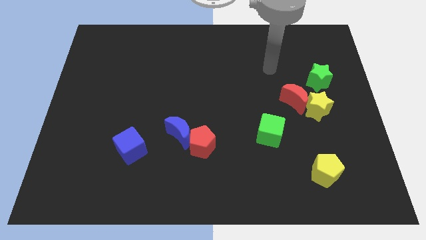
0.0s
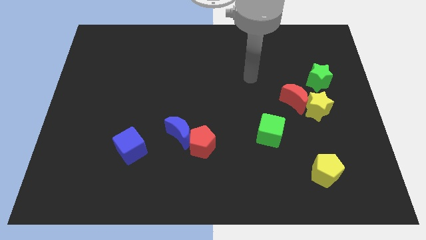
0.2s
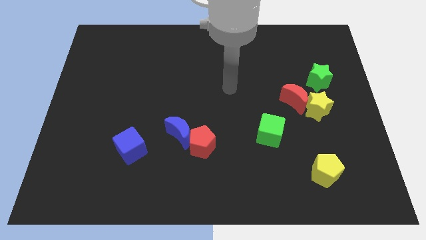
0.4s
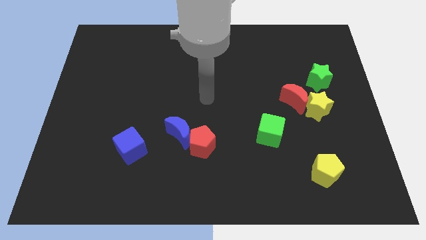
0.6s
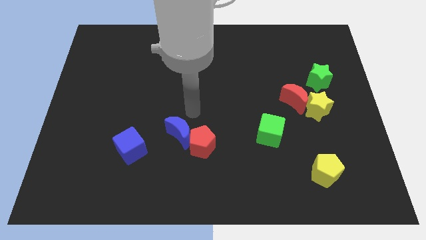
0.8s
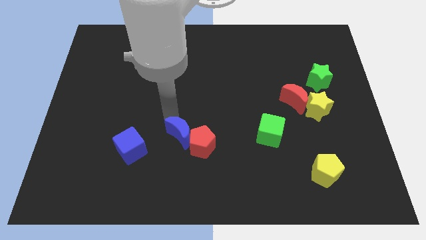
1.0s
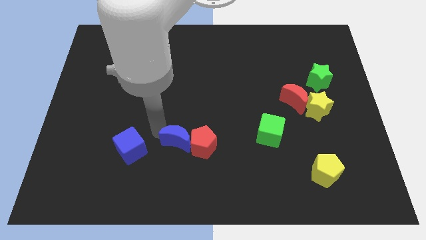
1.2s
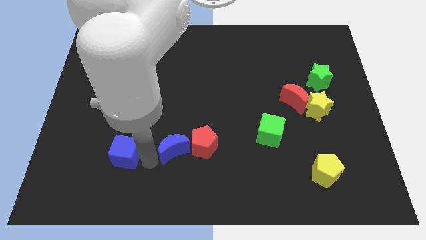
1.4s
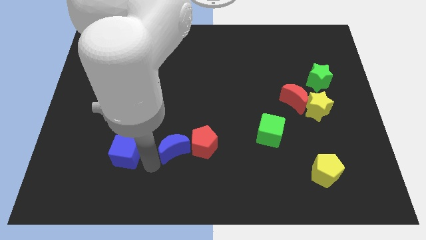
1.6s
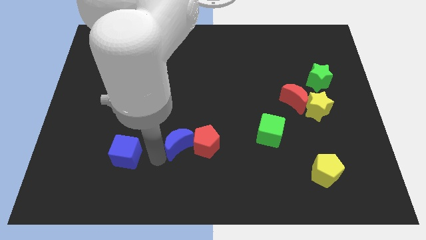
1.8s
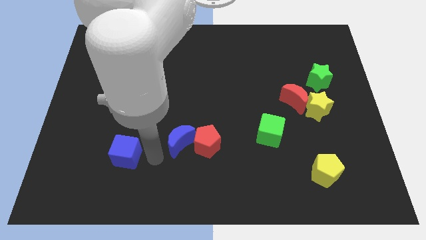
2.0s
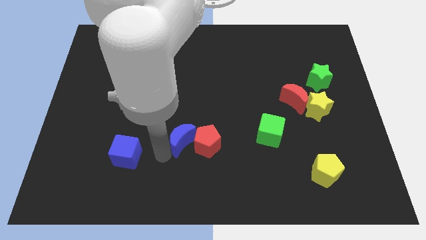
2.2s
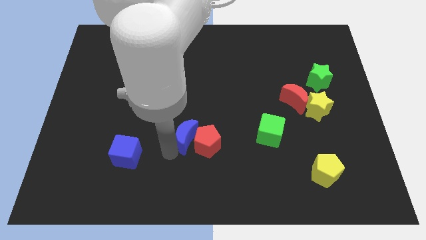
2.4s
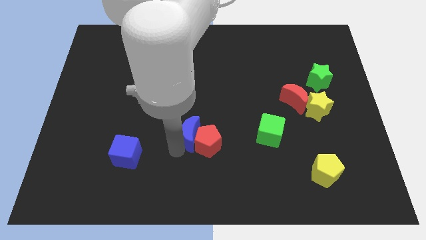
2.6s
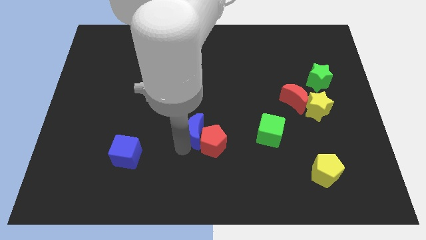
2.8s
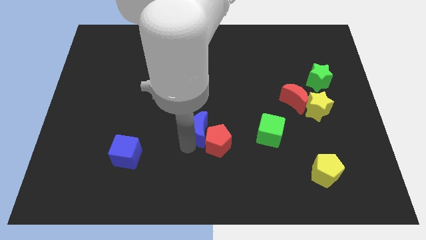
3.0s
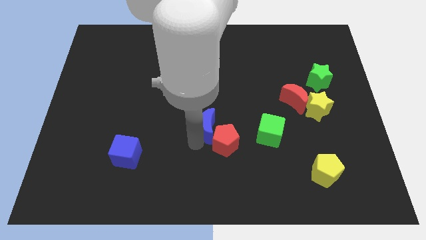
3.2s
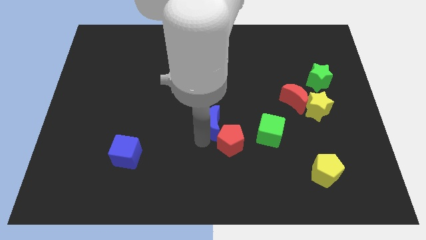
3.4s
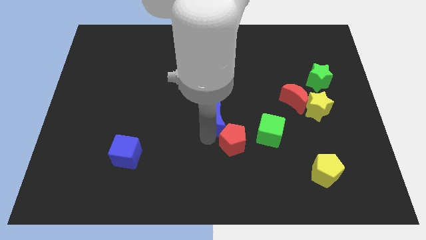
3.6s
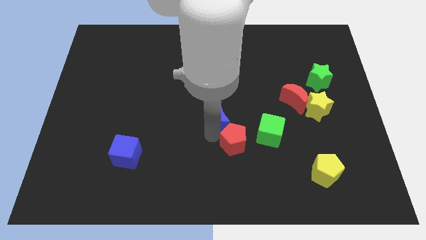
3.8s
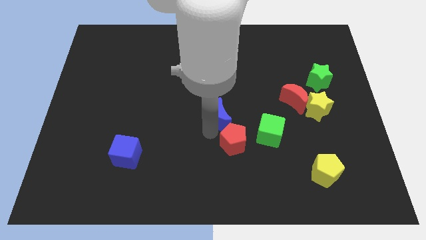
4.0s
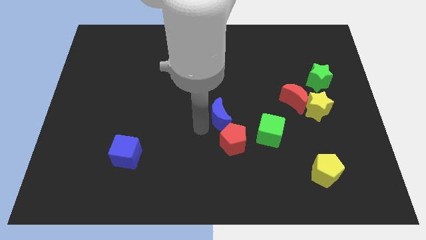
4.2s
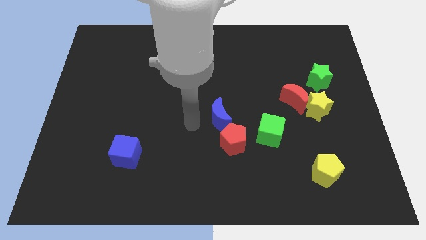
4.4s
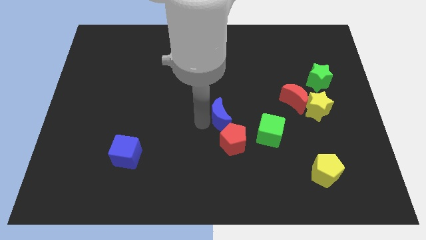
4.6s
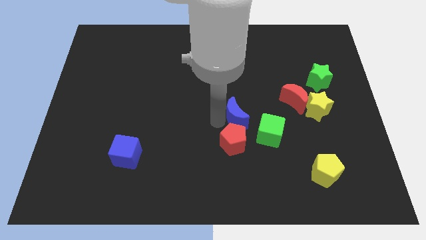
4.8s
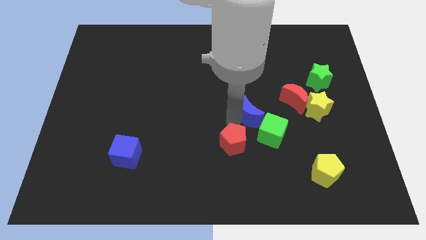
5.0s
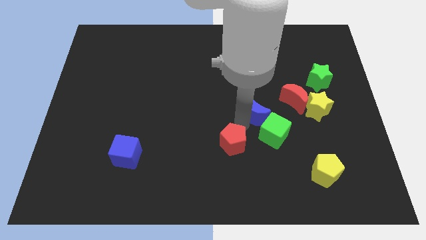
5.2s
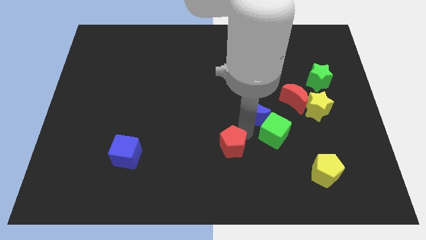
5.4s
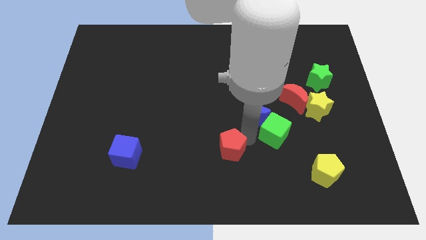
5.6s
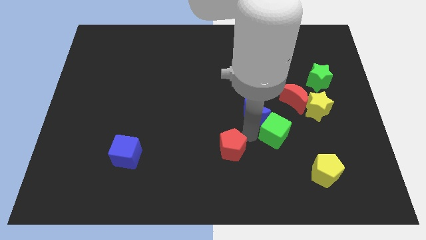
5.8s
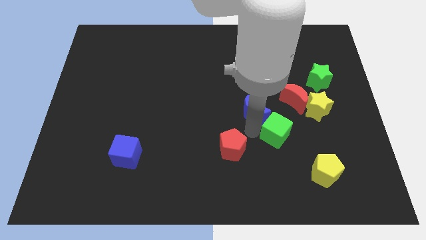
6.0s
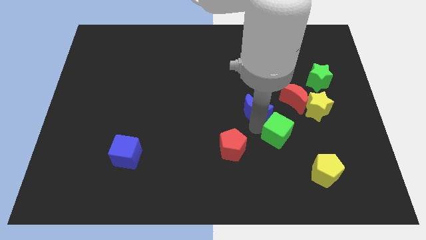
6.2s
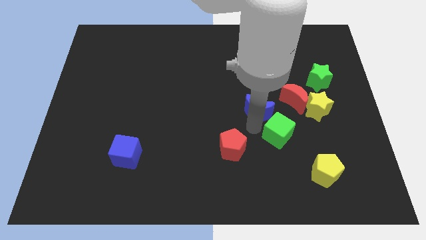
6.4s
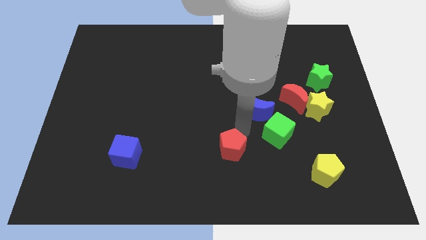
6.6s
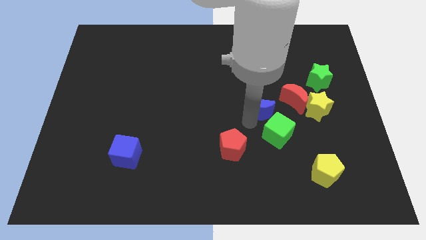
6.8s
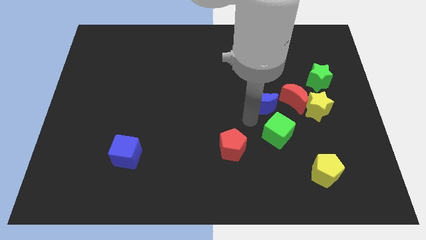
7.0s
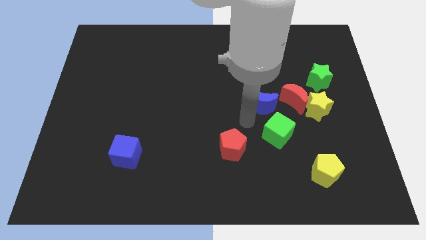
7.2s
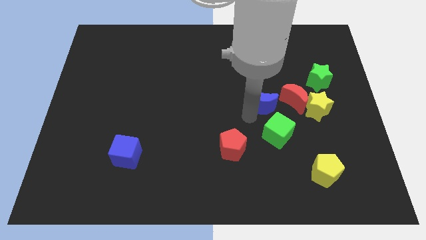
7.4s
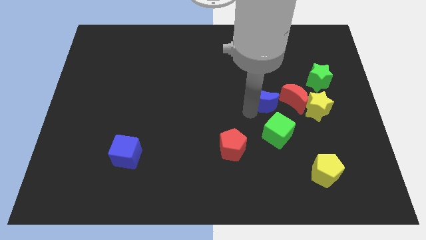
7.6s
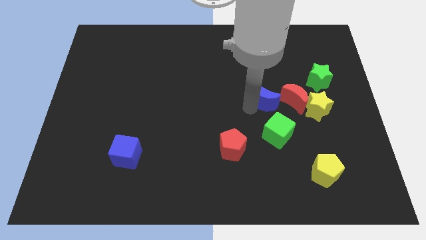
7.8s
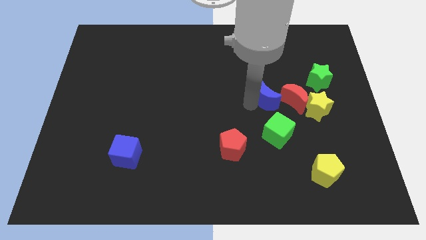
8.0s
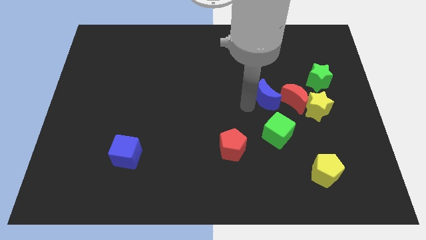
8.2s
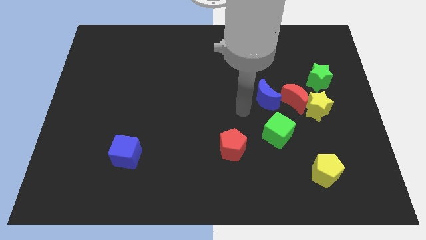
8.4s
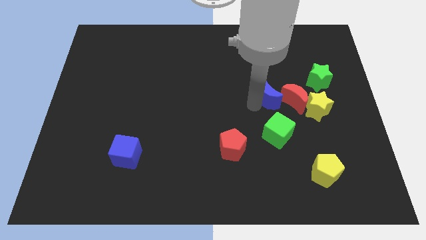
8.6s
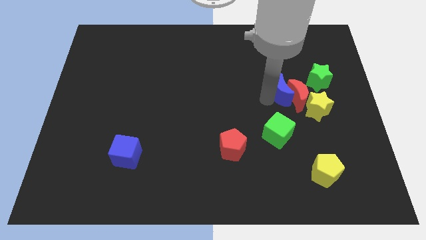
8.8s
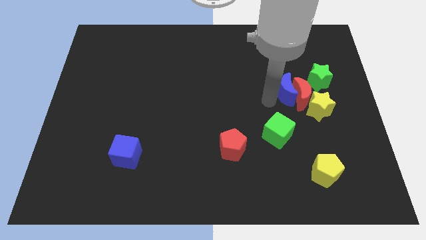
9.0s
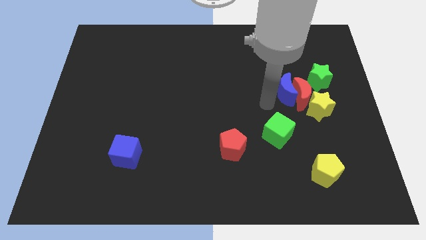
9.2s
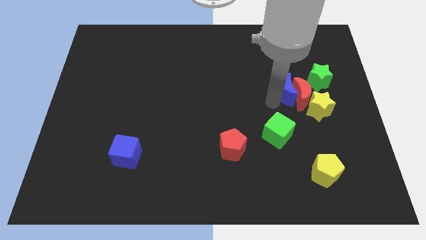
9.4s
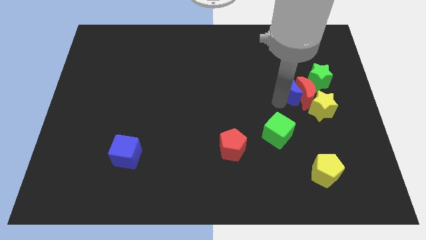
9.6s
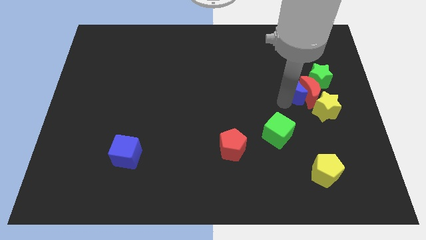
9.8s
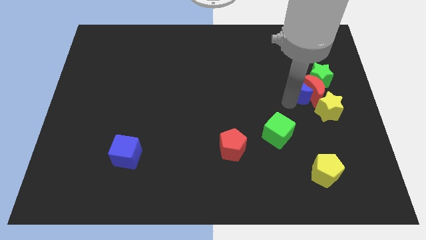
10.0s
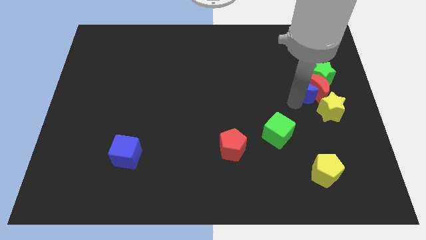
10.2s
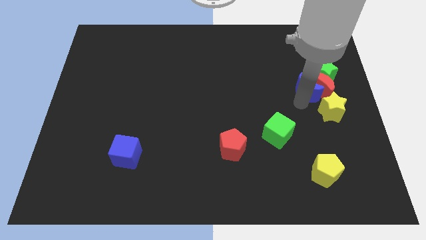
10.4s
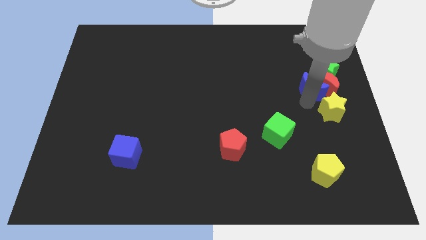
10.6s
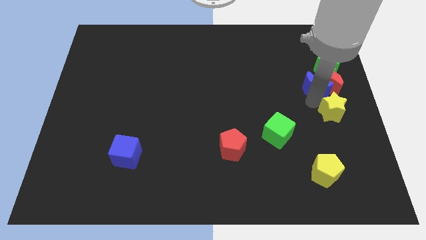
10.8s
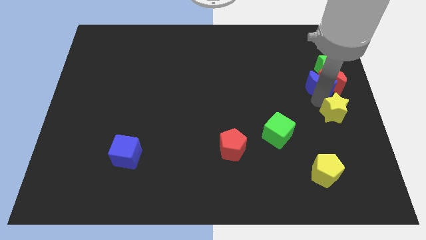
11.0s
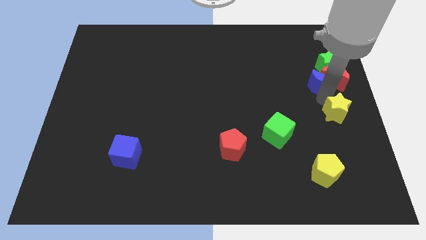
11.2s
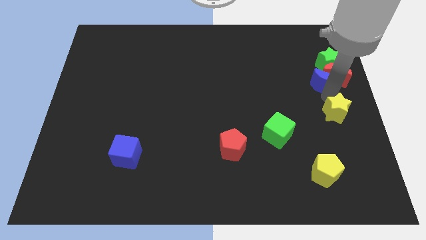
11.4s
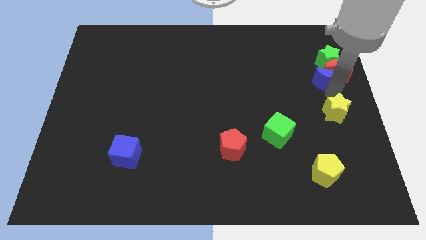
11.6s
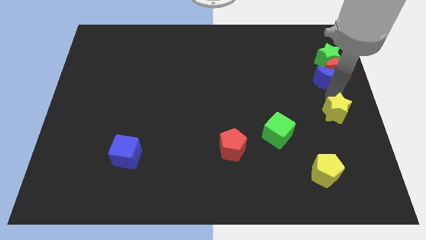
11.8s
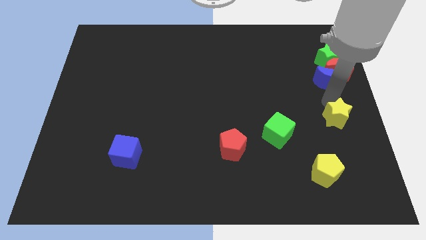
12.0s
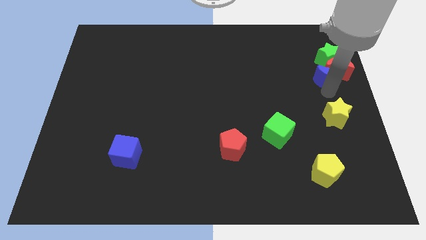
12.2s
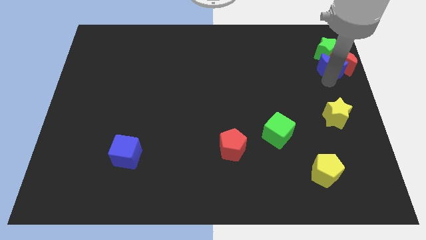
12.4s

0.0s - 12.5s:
push the blue moon next to the green star

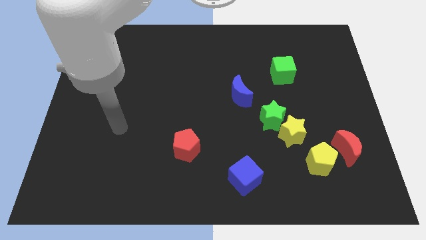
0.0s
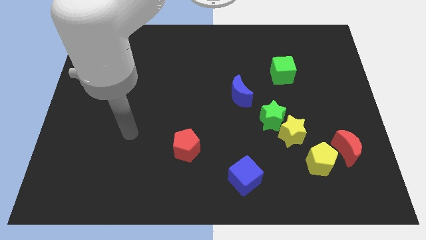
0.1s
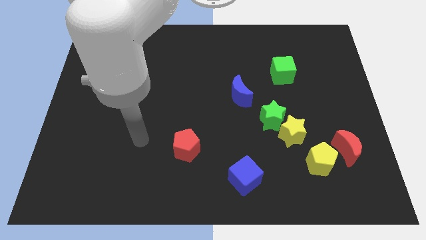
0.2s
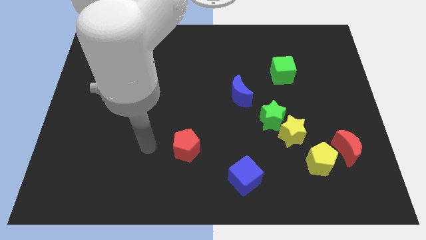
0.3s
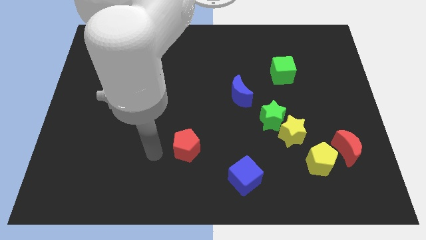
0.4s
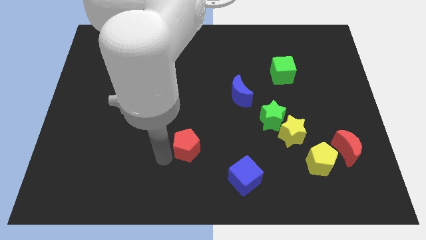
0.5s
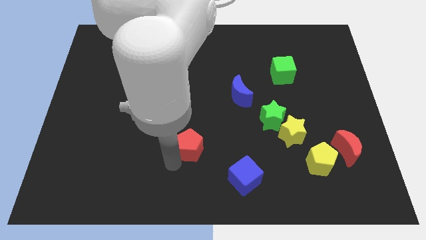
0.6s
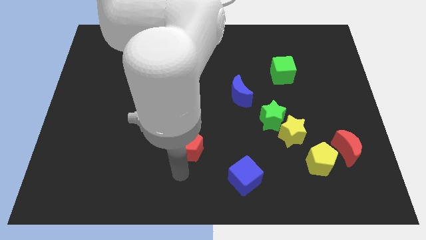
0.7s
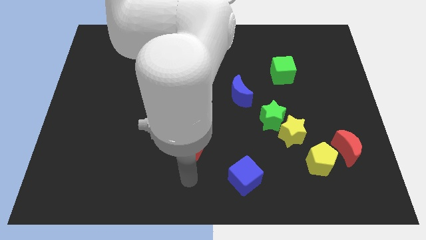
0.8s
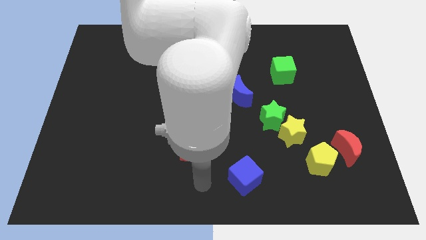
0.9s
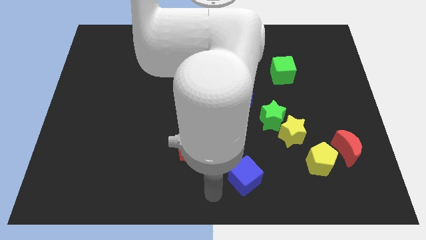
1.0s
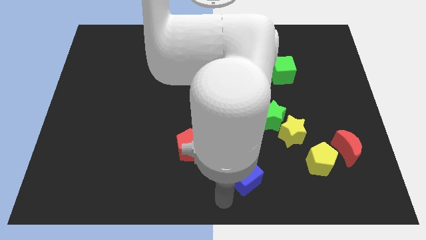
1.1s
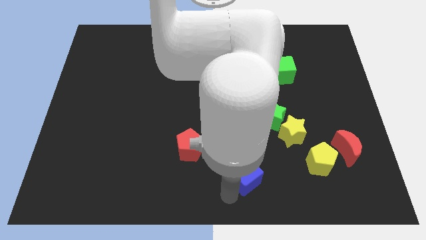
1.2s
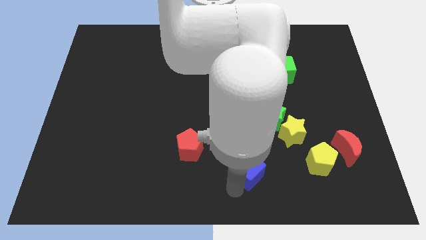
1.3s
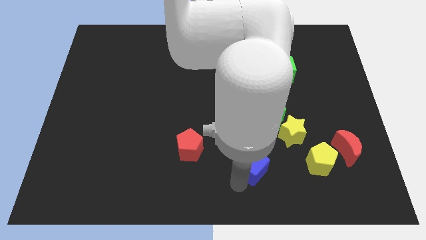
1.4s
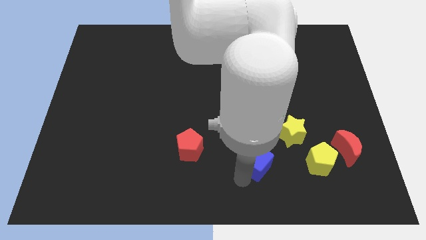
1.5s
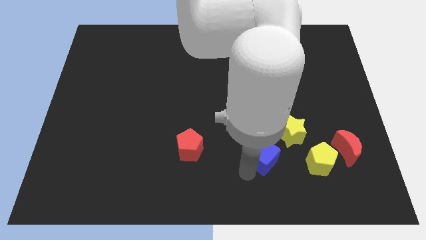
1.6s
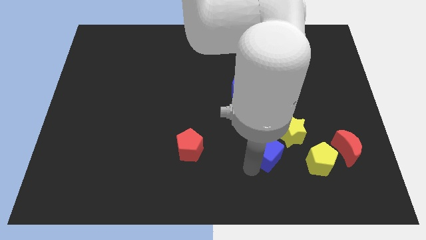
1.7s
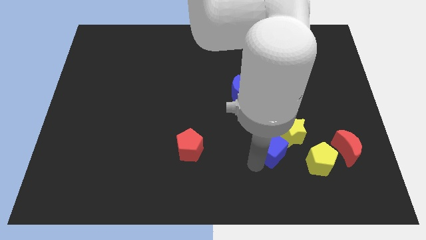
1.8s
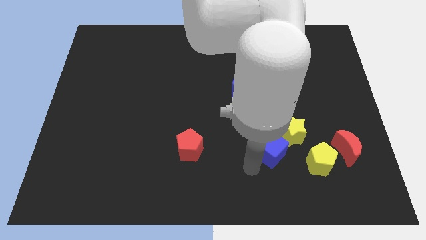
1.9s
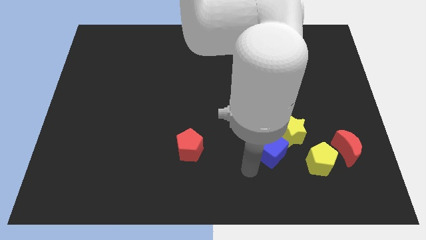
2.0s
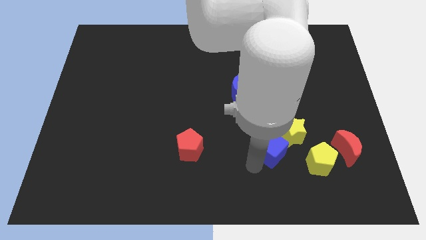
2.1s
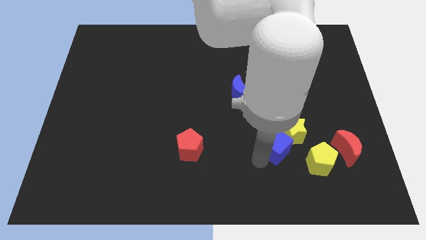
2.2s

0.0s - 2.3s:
slide the blue cube to the yellow star
